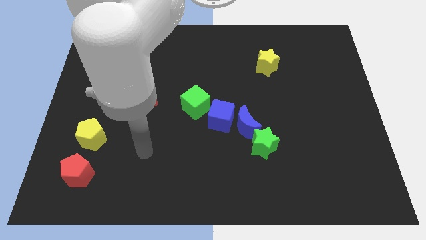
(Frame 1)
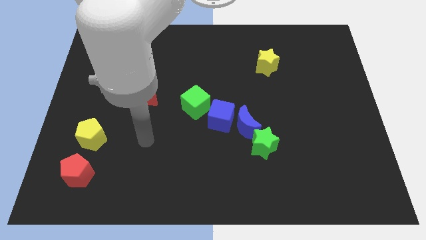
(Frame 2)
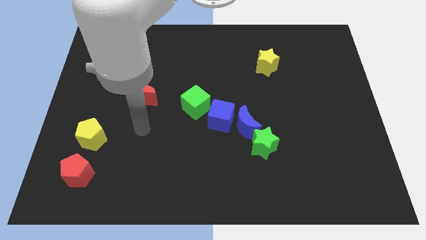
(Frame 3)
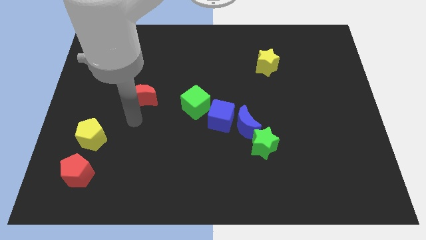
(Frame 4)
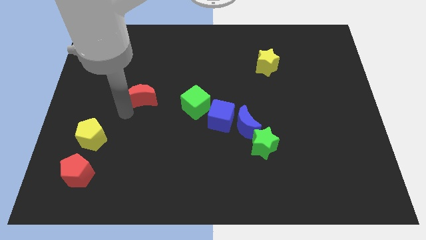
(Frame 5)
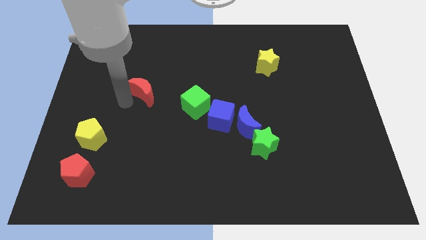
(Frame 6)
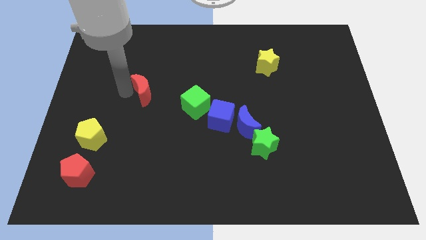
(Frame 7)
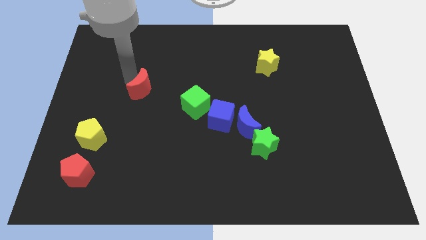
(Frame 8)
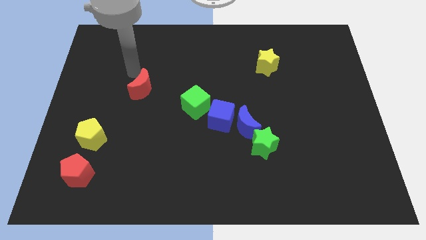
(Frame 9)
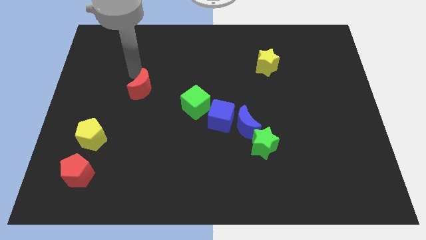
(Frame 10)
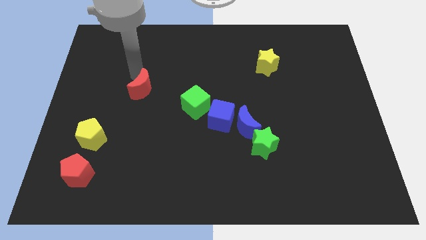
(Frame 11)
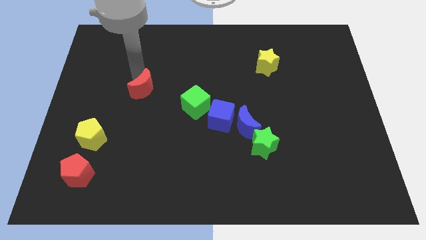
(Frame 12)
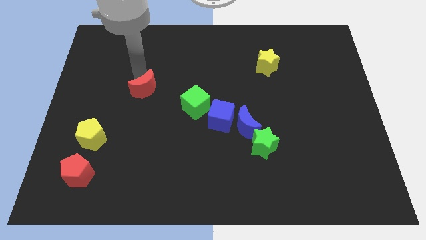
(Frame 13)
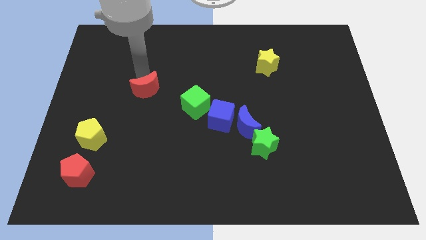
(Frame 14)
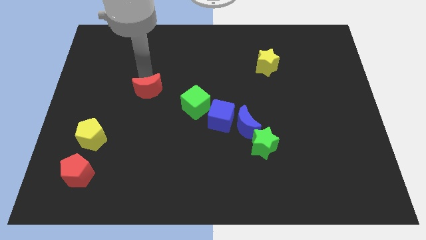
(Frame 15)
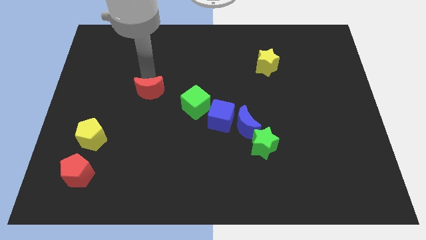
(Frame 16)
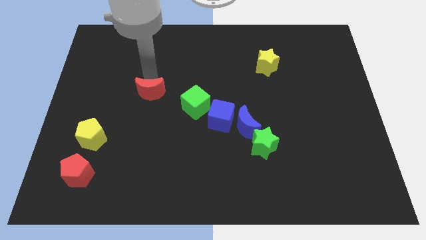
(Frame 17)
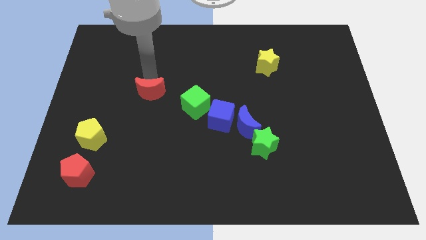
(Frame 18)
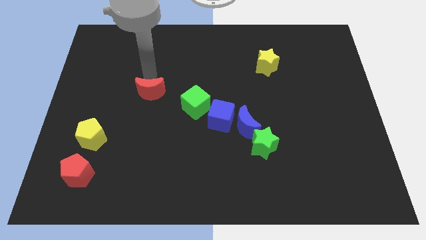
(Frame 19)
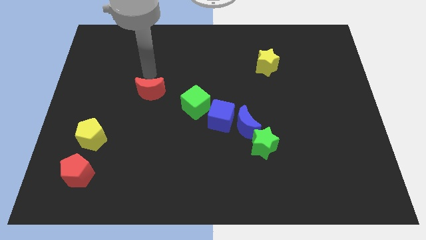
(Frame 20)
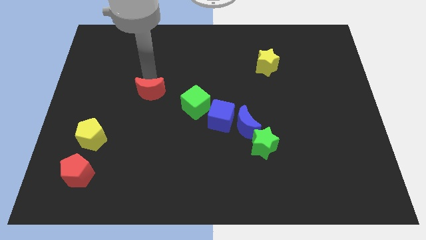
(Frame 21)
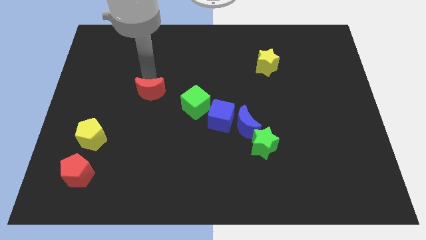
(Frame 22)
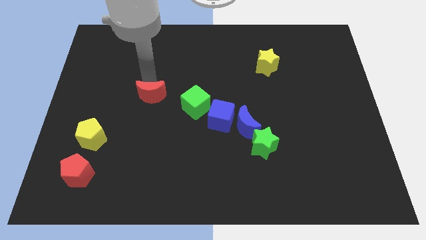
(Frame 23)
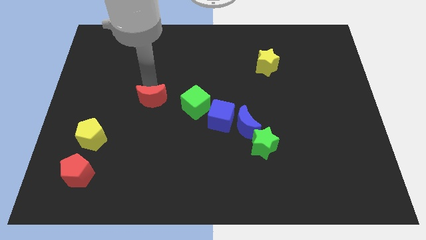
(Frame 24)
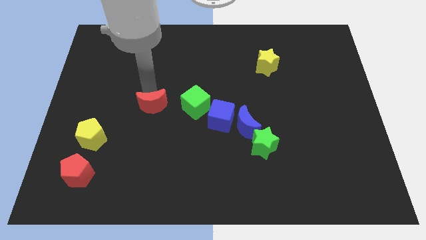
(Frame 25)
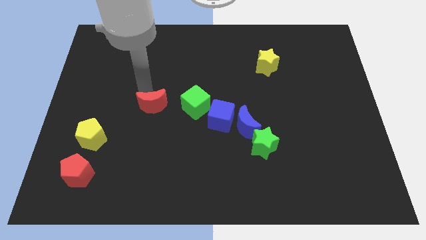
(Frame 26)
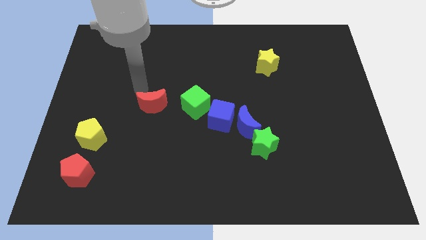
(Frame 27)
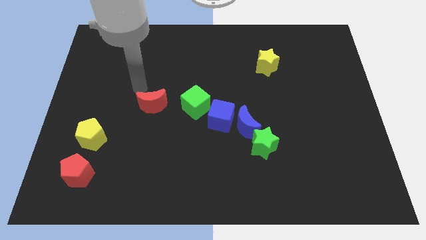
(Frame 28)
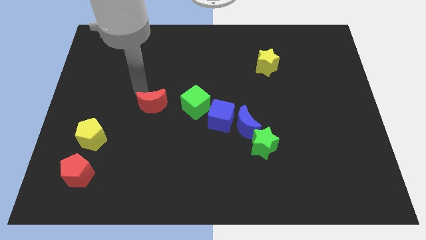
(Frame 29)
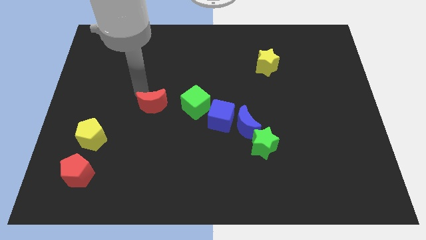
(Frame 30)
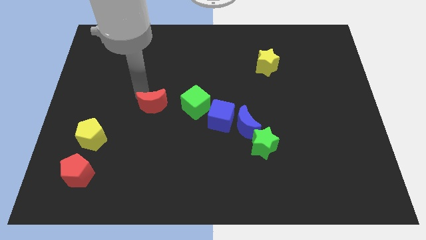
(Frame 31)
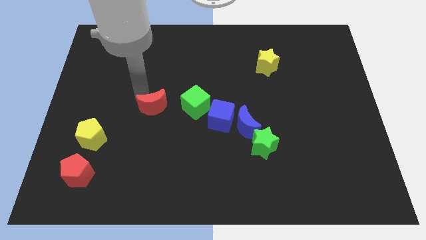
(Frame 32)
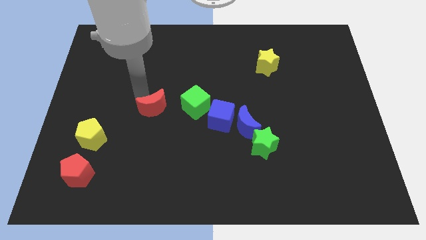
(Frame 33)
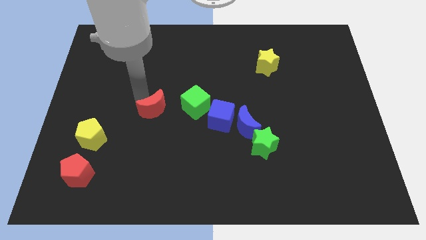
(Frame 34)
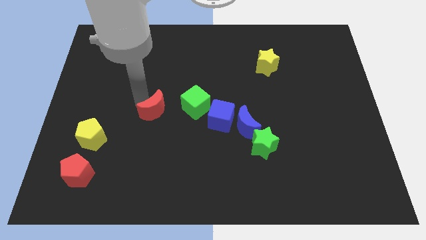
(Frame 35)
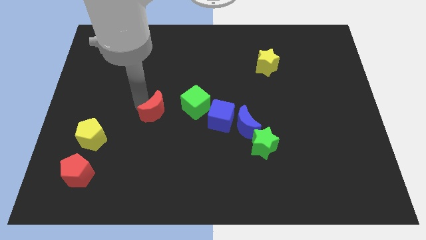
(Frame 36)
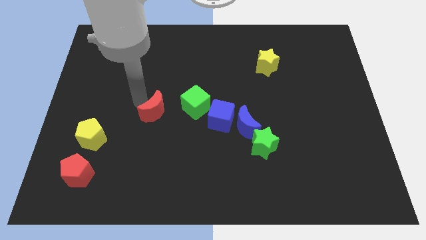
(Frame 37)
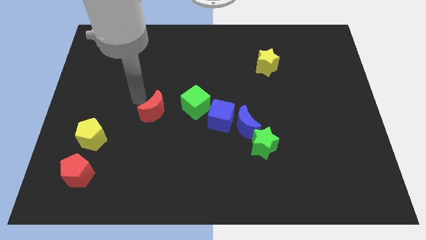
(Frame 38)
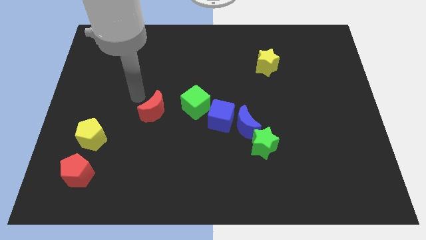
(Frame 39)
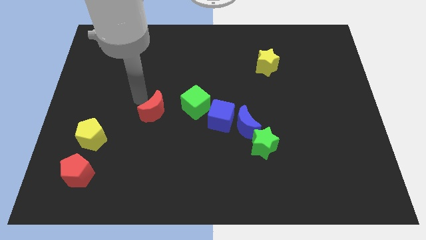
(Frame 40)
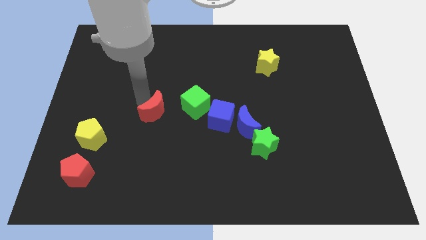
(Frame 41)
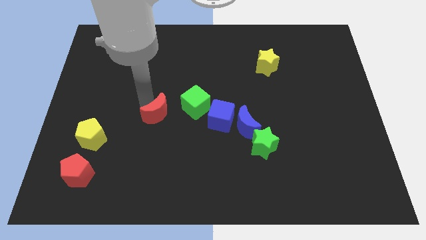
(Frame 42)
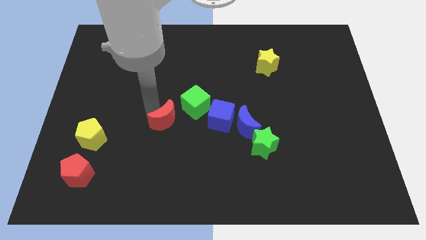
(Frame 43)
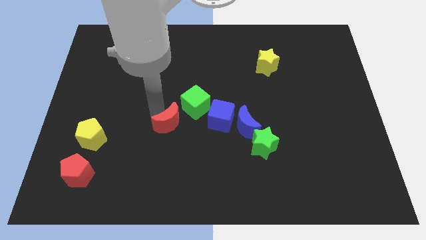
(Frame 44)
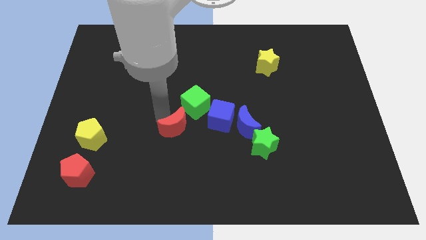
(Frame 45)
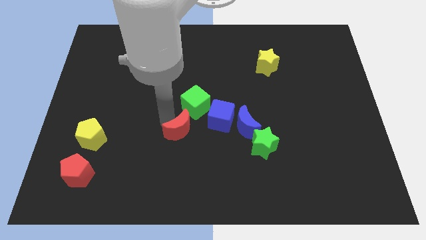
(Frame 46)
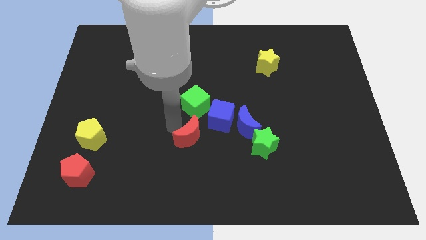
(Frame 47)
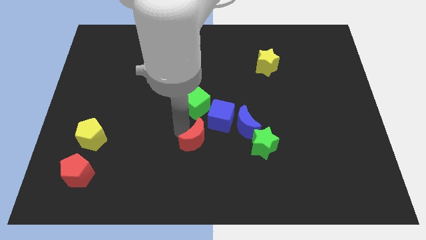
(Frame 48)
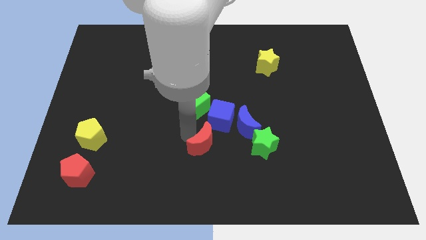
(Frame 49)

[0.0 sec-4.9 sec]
slide the red moon to the bottom of the blue cube

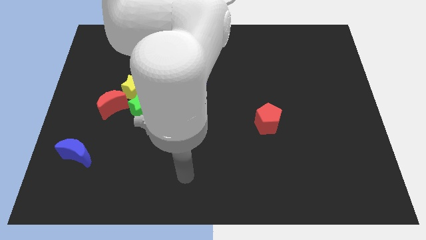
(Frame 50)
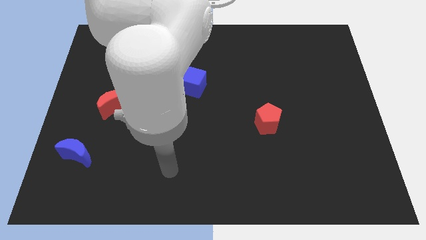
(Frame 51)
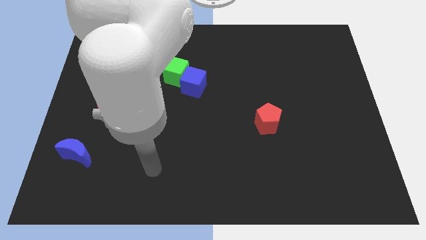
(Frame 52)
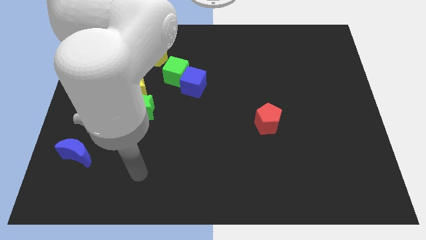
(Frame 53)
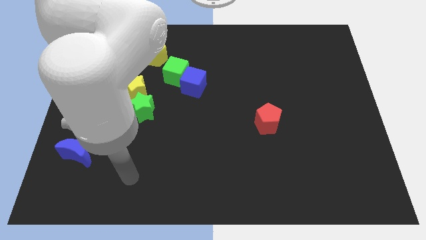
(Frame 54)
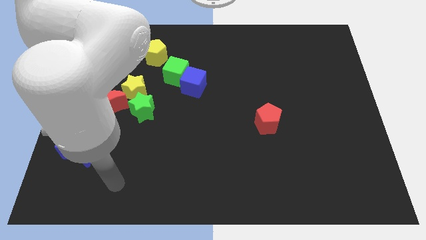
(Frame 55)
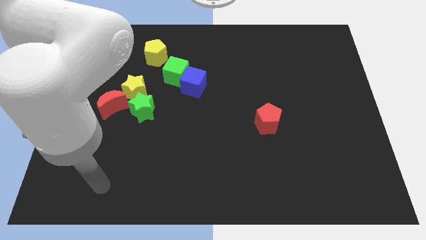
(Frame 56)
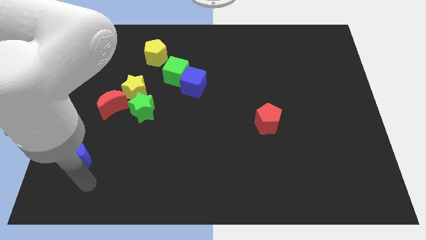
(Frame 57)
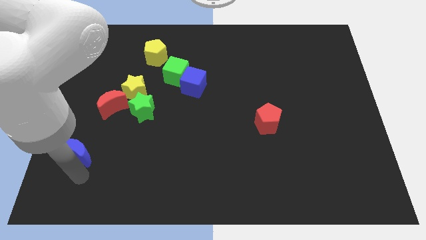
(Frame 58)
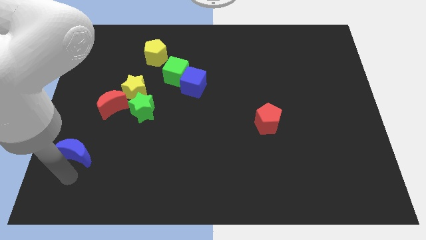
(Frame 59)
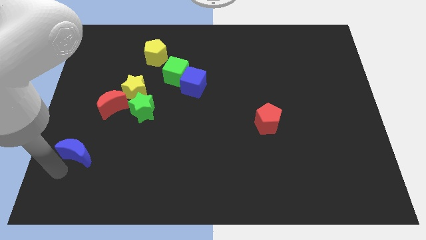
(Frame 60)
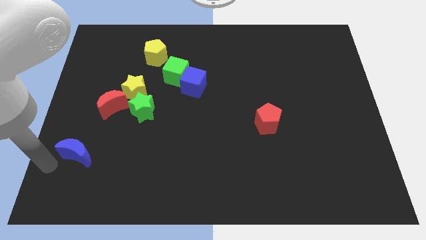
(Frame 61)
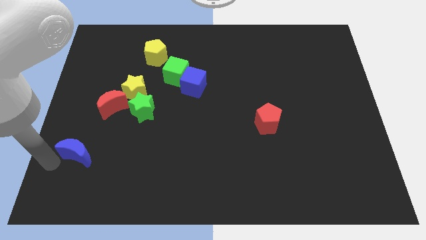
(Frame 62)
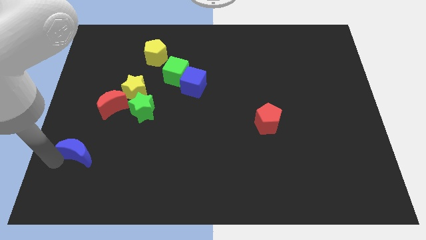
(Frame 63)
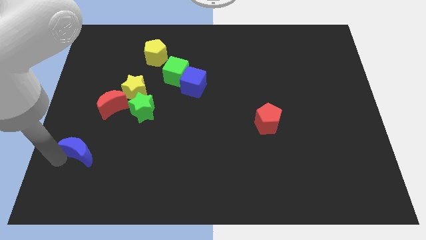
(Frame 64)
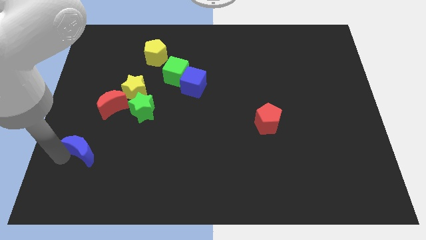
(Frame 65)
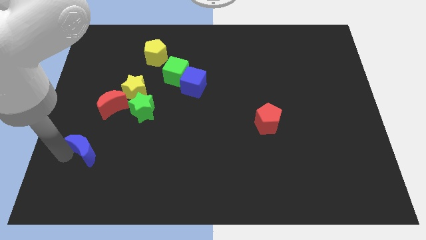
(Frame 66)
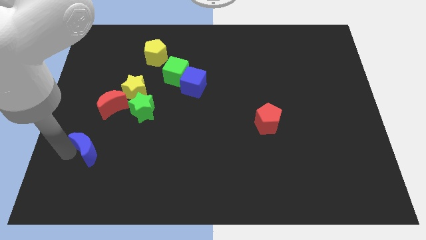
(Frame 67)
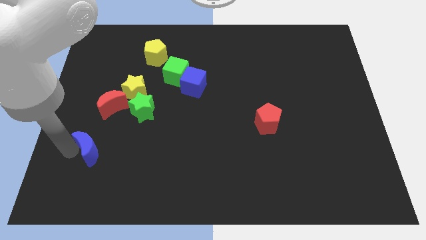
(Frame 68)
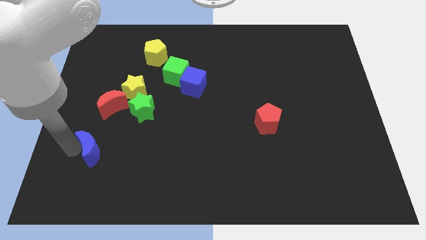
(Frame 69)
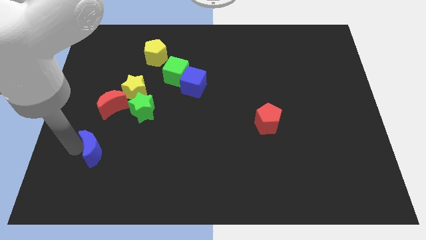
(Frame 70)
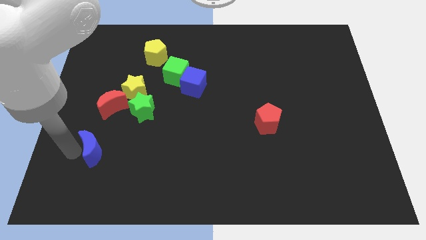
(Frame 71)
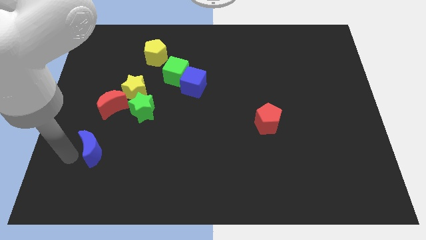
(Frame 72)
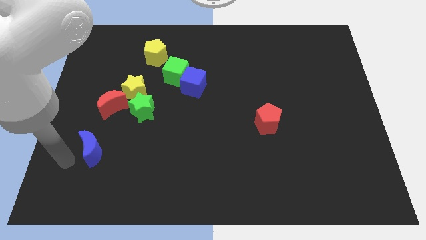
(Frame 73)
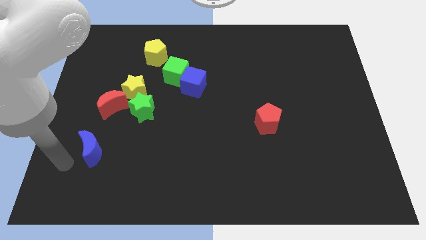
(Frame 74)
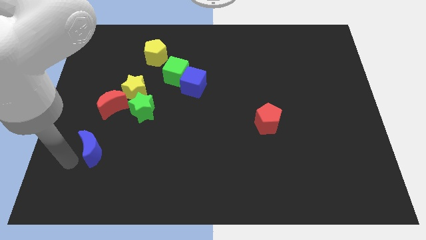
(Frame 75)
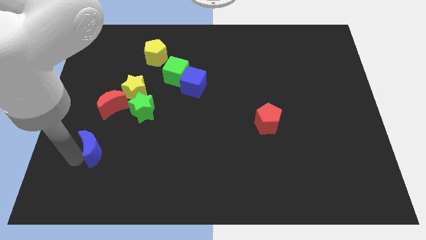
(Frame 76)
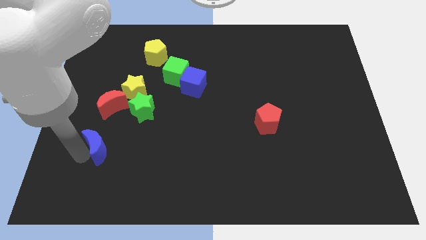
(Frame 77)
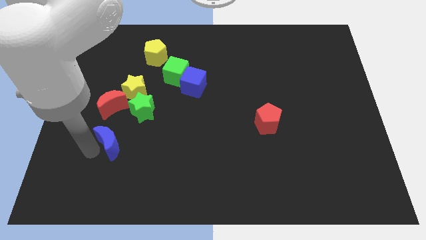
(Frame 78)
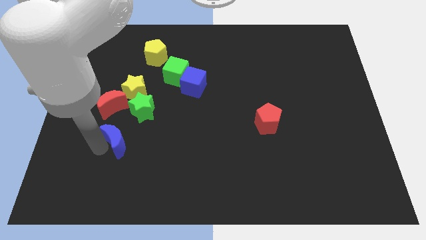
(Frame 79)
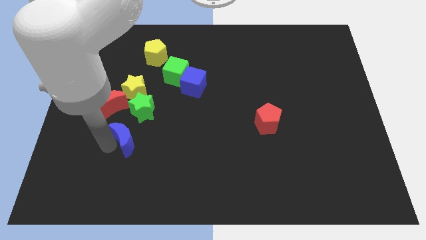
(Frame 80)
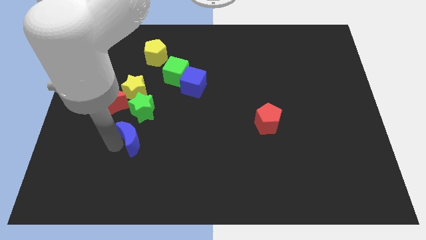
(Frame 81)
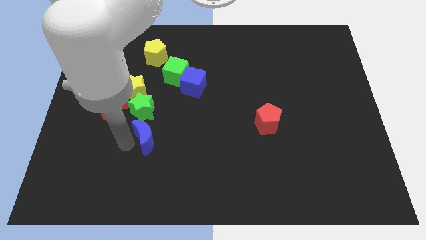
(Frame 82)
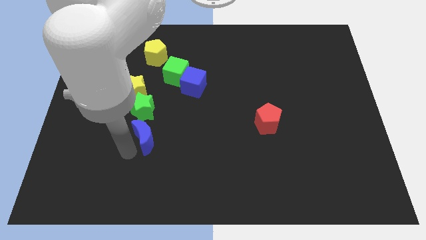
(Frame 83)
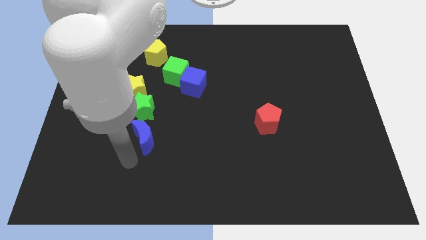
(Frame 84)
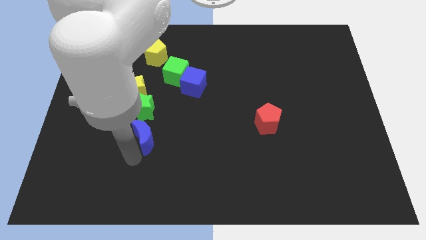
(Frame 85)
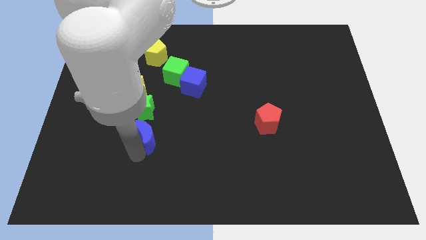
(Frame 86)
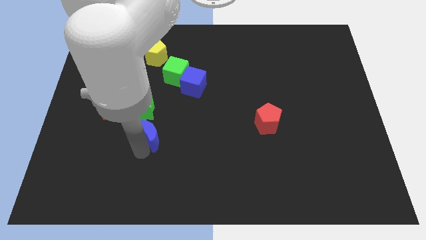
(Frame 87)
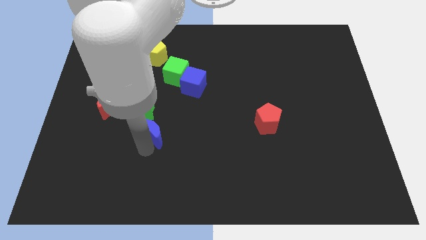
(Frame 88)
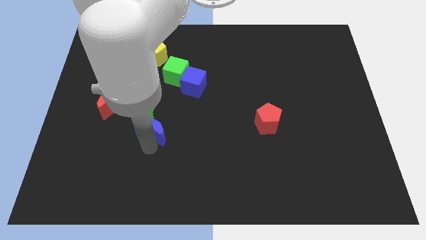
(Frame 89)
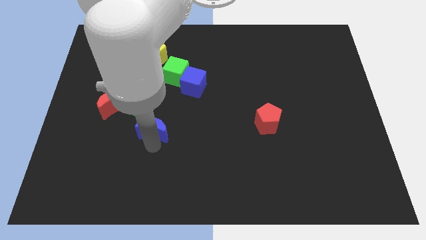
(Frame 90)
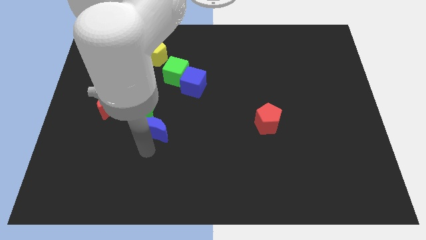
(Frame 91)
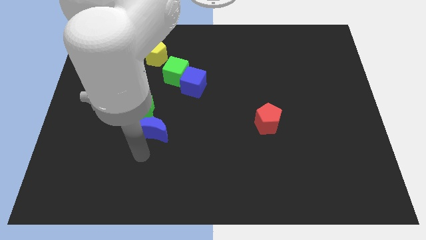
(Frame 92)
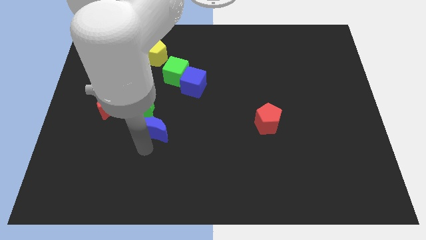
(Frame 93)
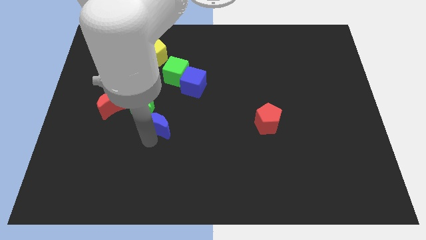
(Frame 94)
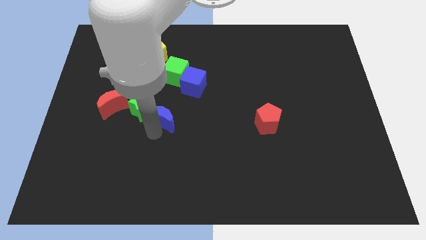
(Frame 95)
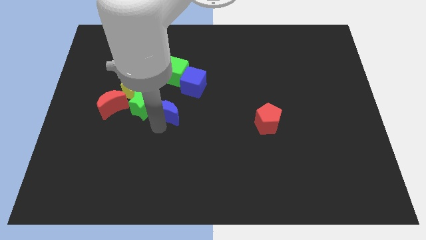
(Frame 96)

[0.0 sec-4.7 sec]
slide the blue moon to the bottom left side of the blue cube
